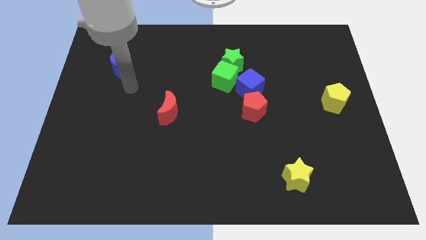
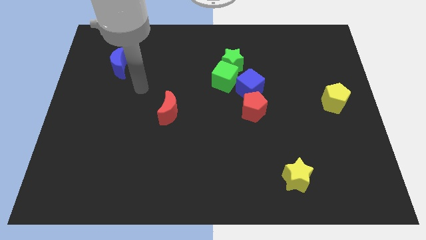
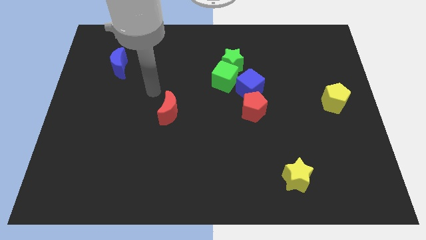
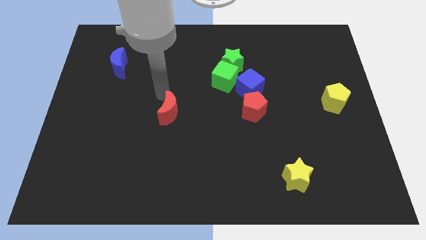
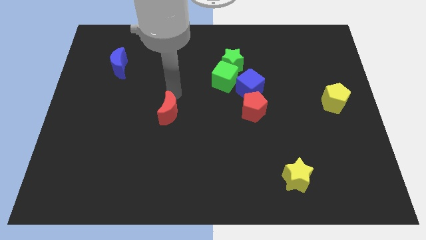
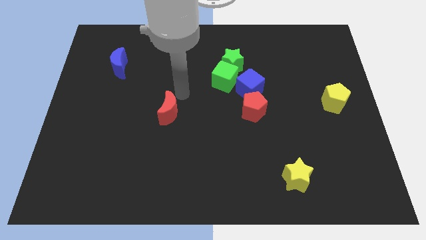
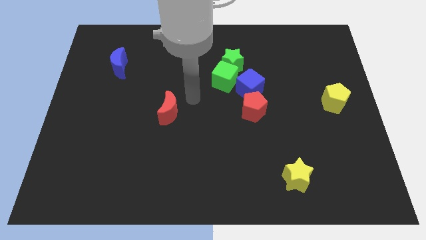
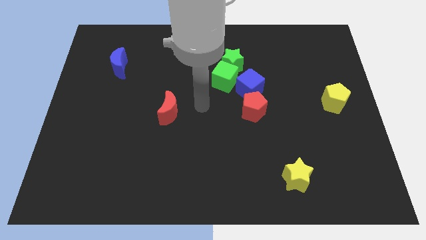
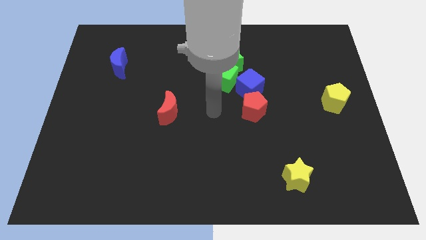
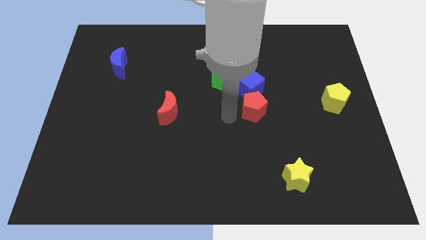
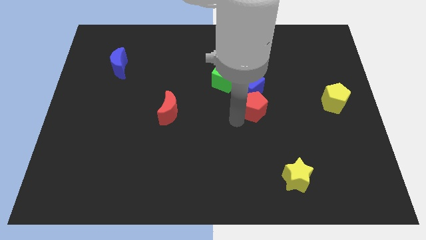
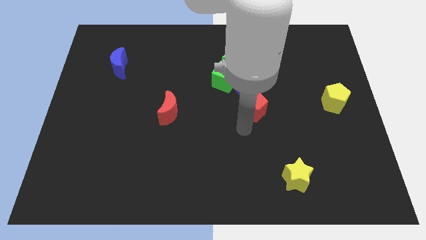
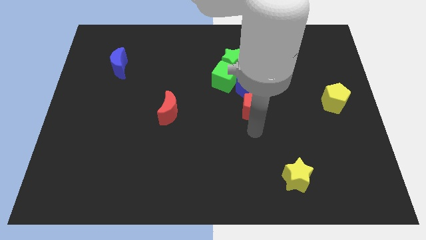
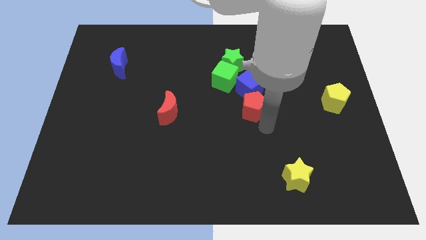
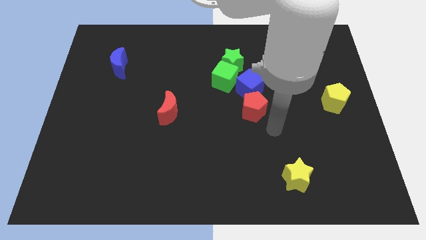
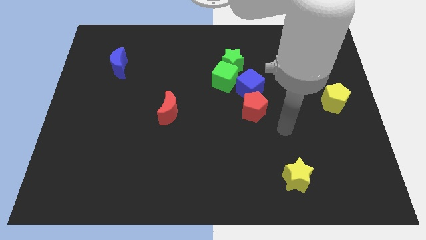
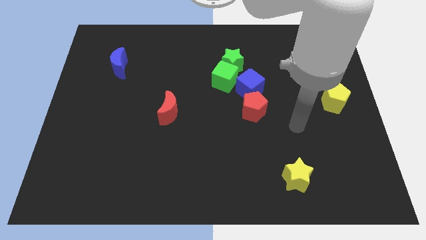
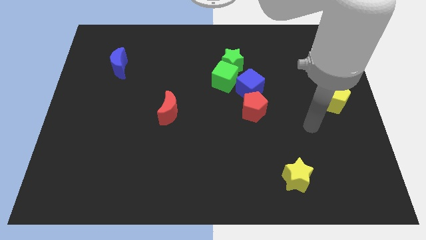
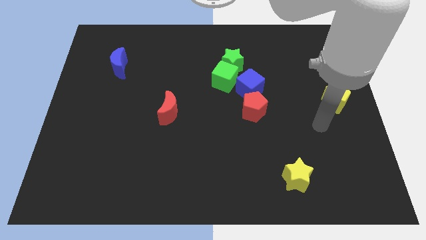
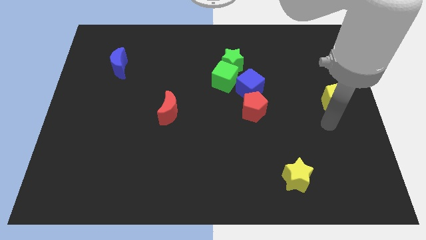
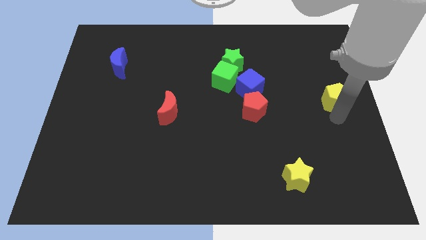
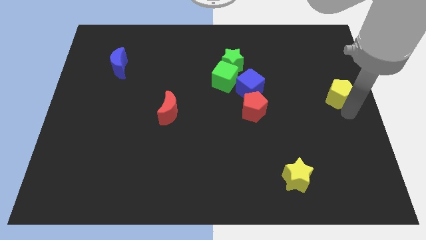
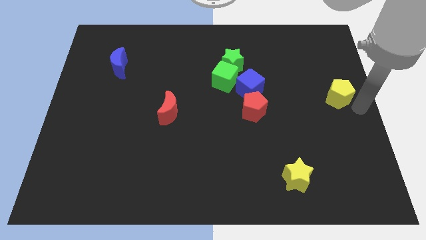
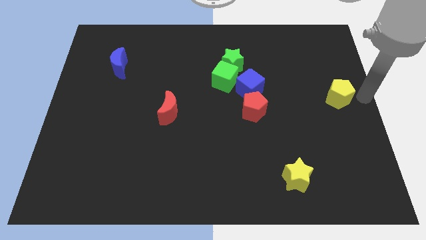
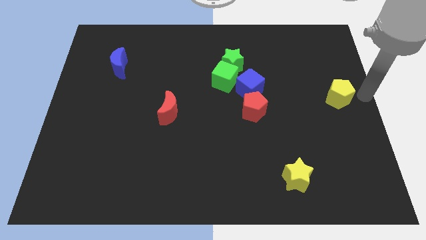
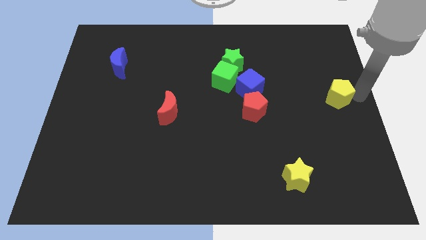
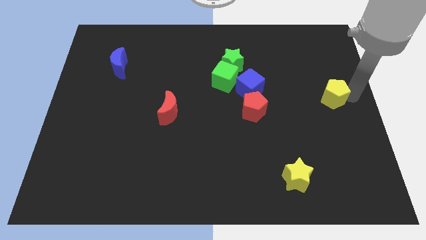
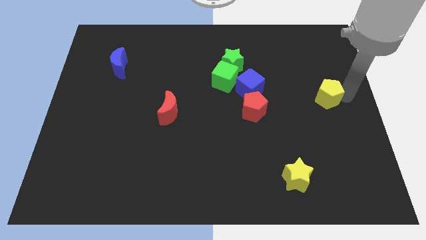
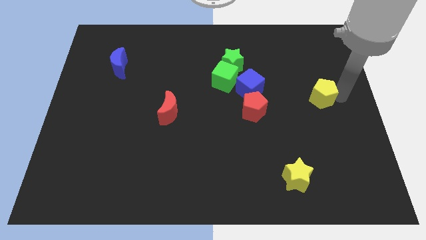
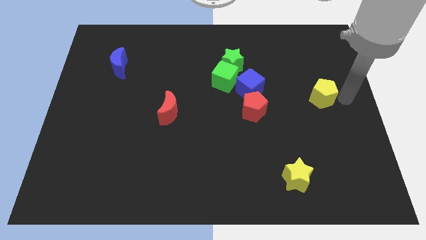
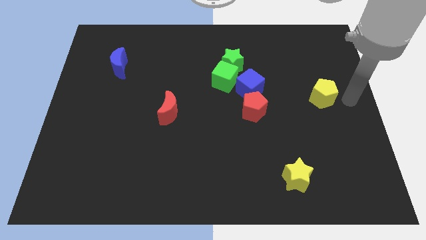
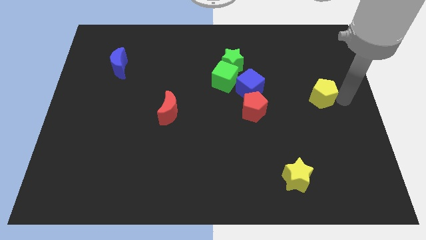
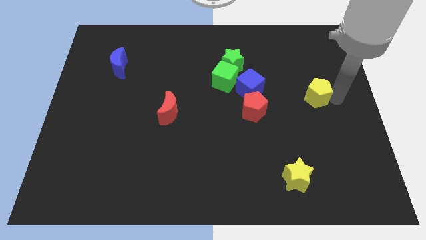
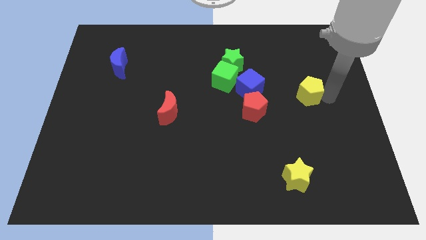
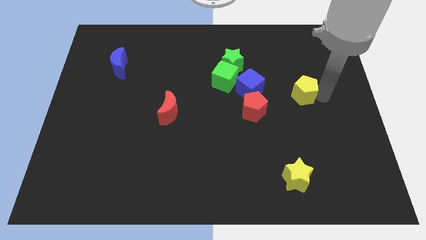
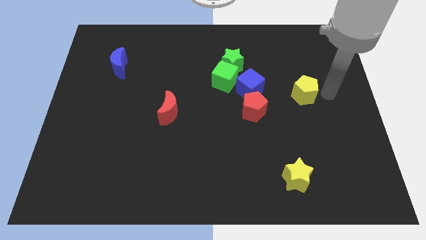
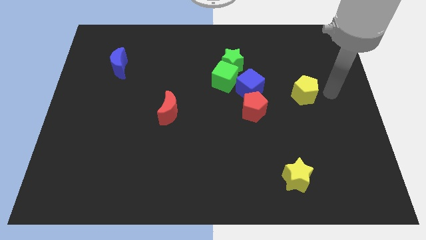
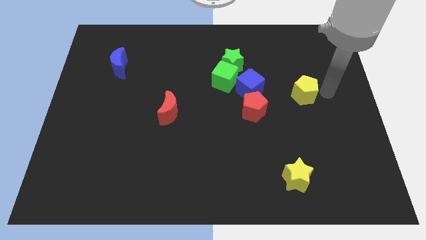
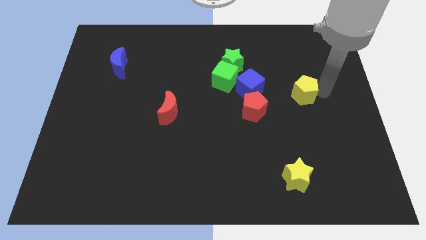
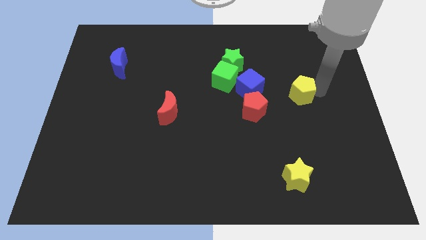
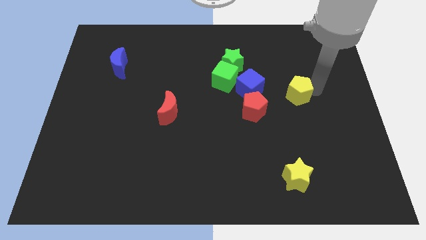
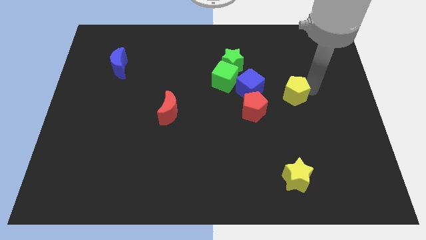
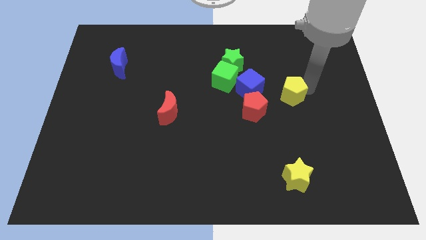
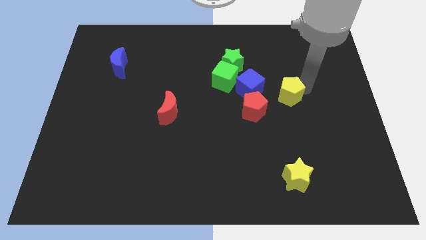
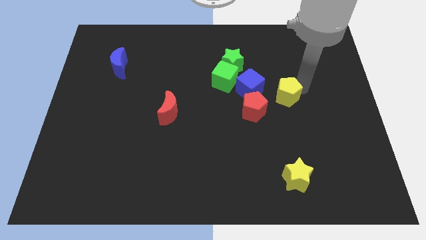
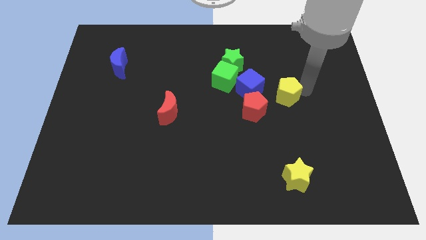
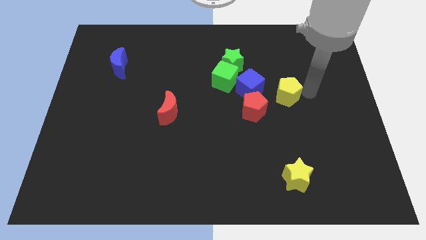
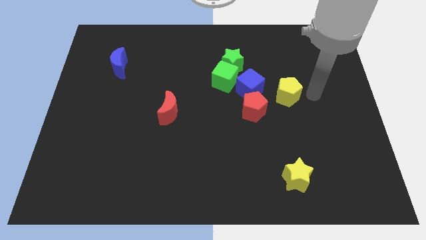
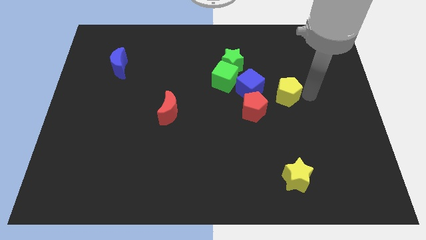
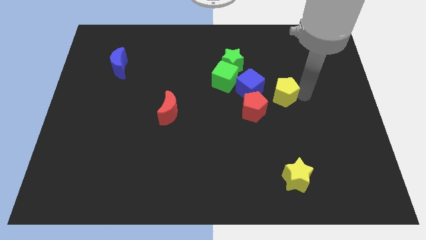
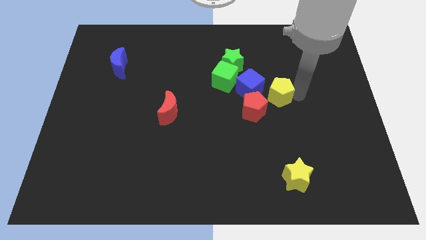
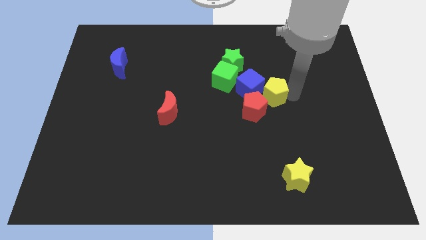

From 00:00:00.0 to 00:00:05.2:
move the yellow pentagon to the blue cube

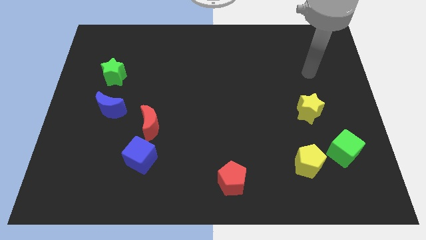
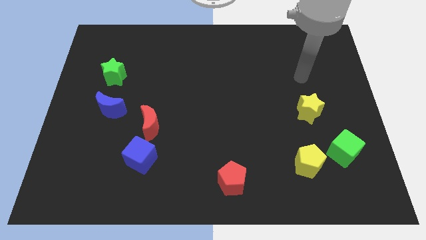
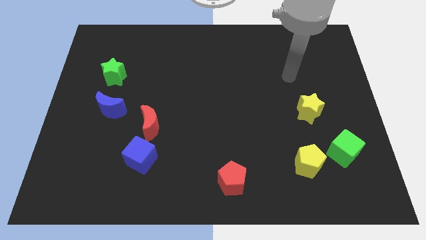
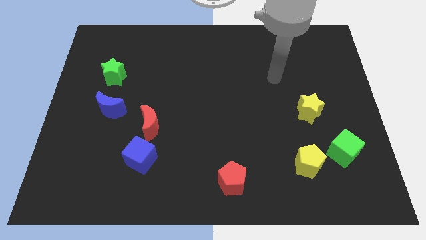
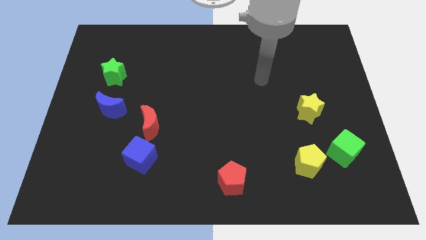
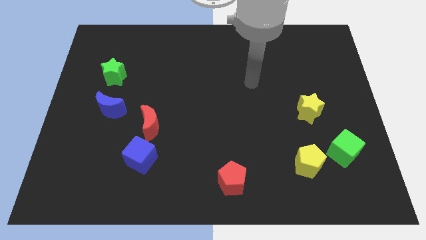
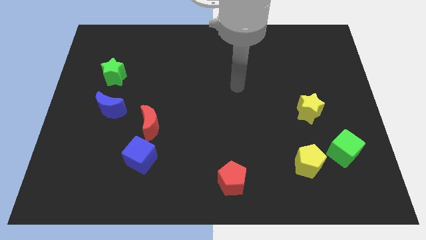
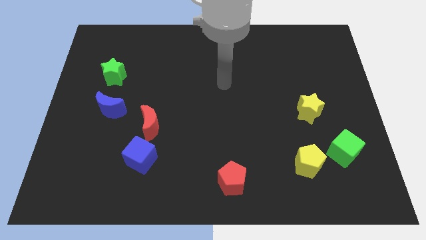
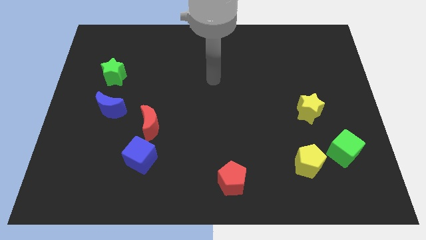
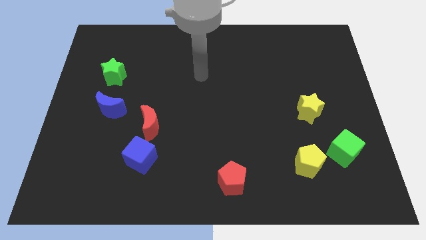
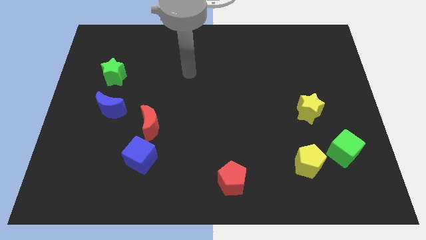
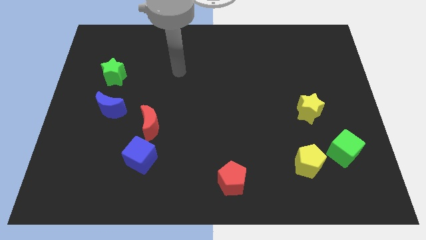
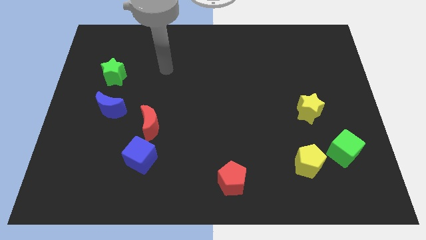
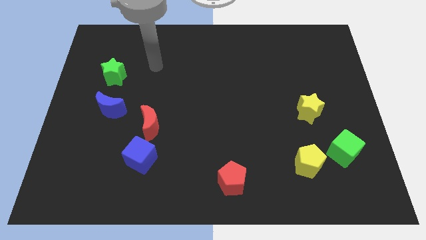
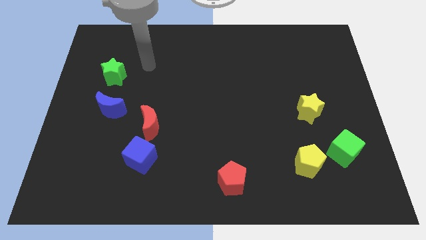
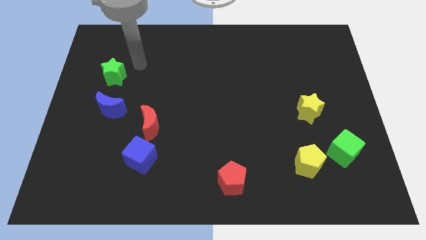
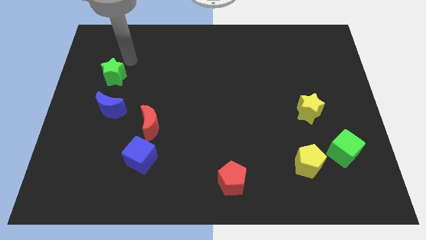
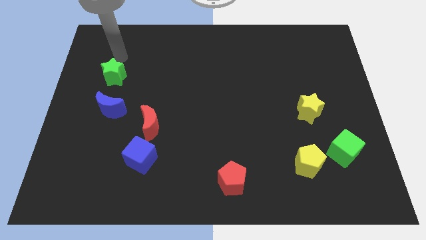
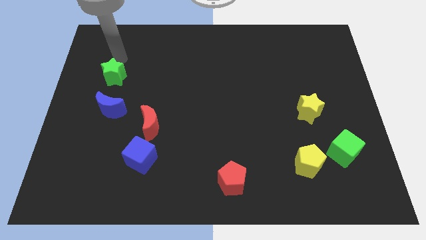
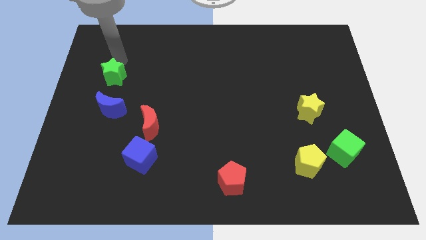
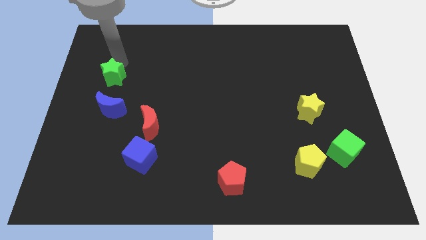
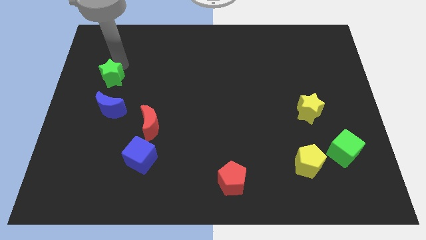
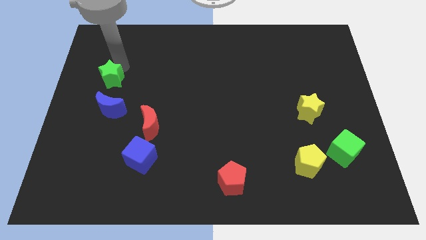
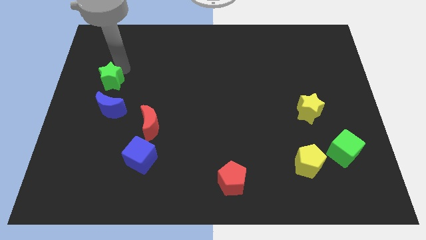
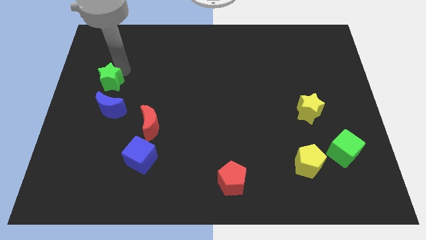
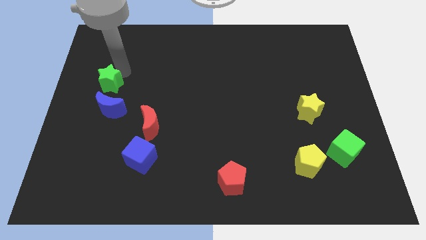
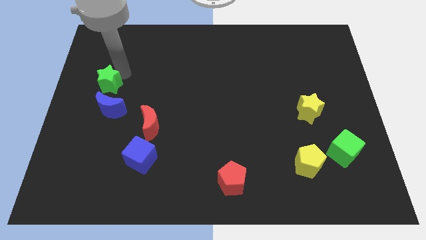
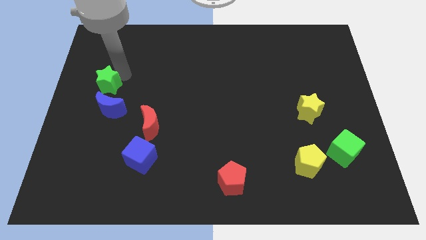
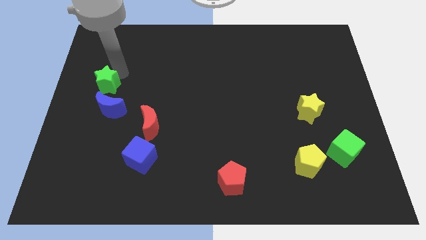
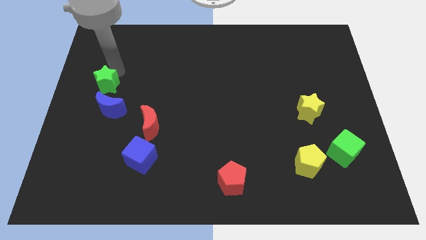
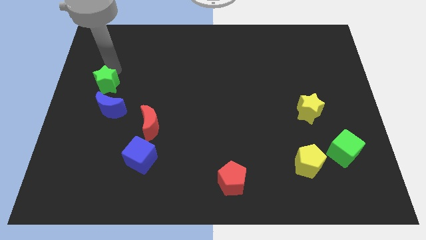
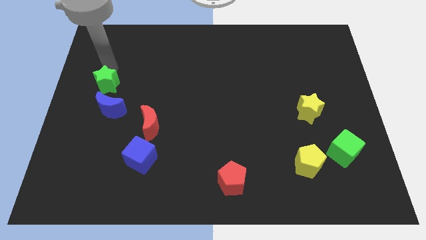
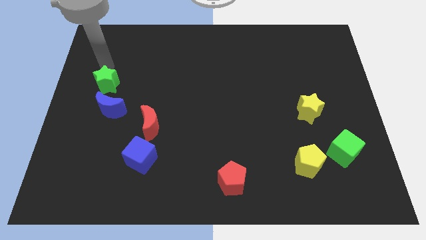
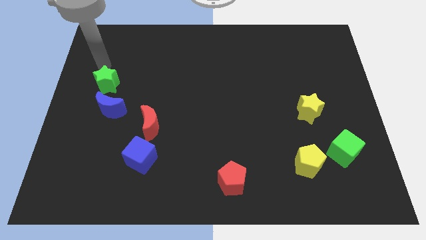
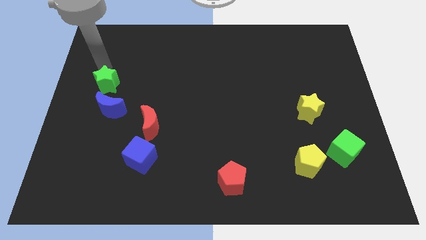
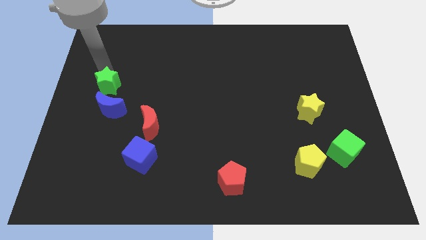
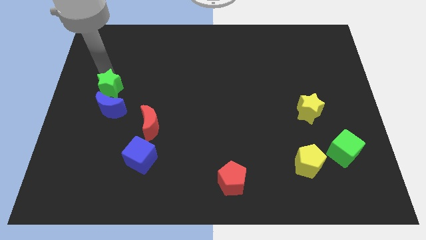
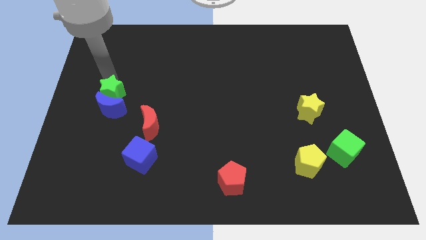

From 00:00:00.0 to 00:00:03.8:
push the green star to the blue moon
